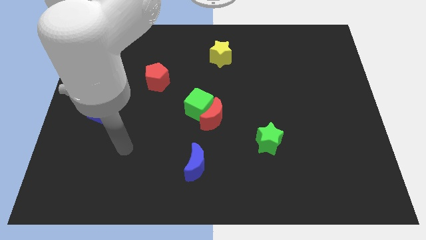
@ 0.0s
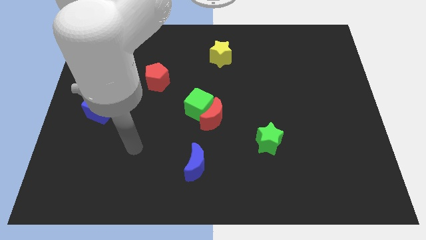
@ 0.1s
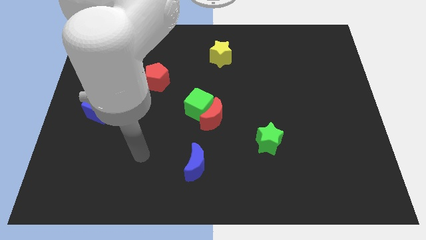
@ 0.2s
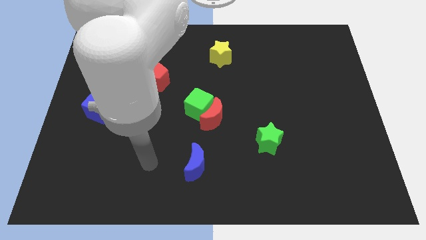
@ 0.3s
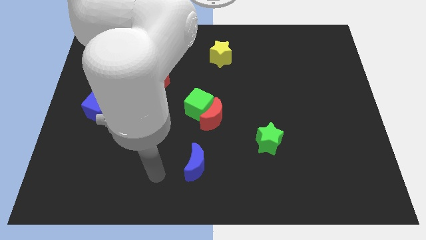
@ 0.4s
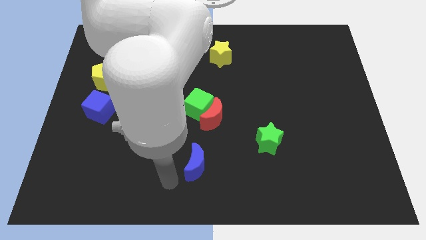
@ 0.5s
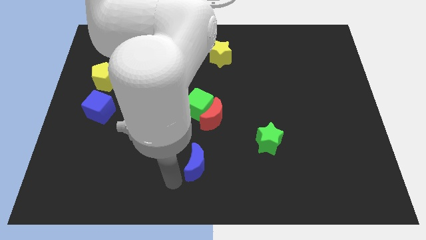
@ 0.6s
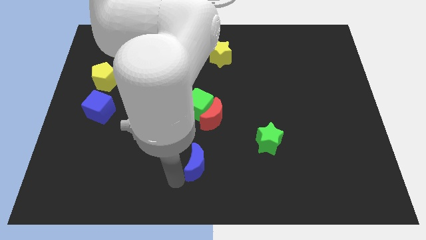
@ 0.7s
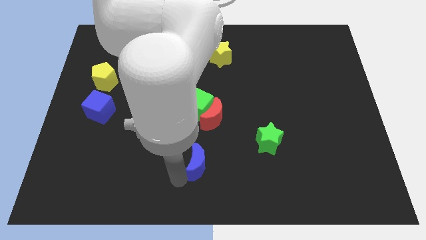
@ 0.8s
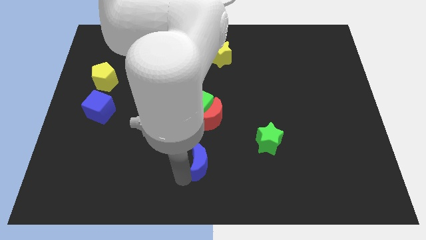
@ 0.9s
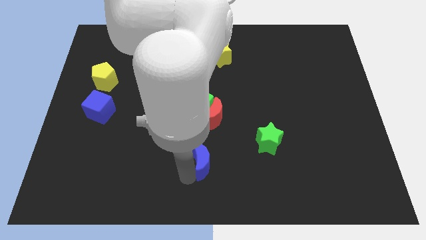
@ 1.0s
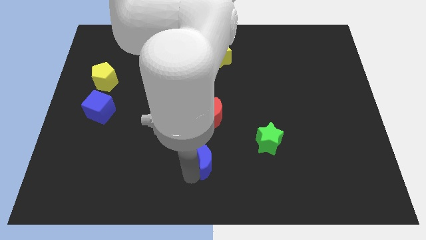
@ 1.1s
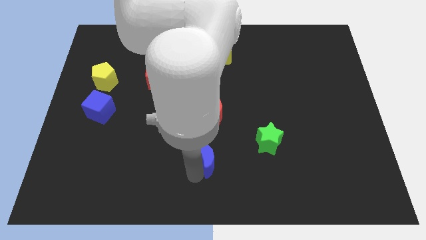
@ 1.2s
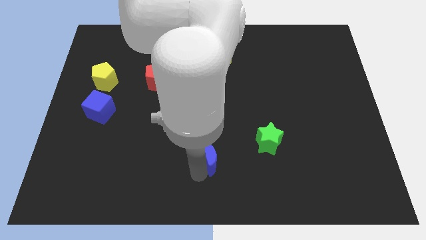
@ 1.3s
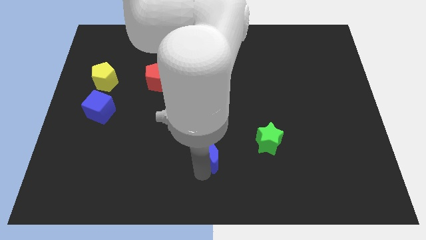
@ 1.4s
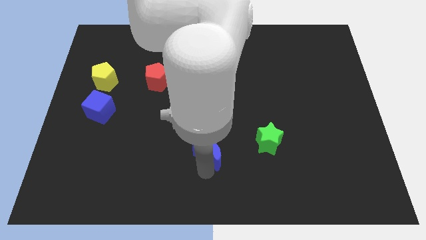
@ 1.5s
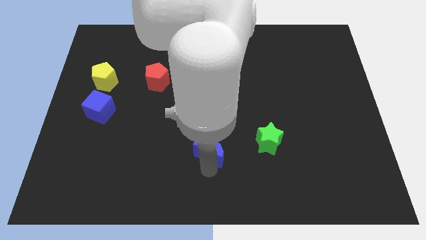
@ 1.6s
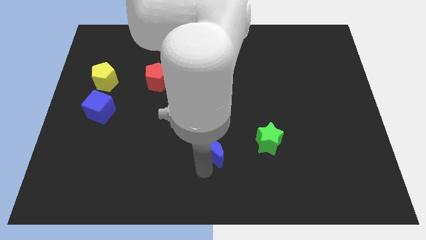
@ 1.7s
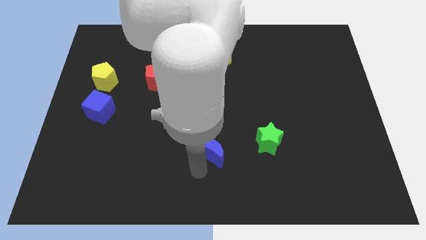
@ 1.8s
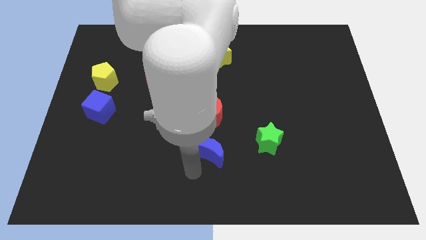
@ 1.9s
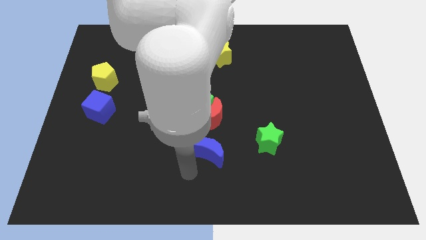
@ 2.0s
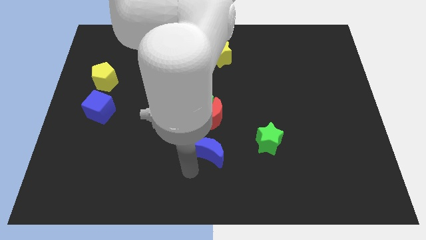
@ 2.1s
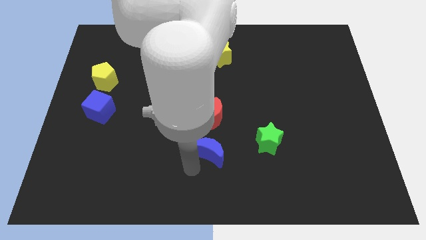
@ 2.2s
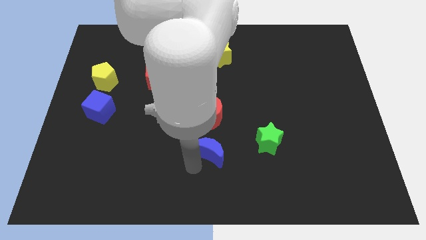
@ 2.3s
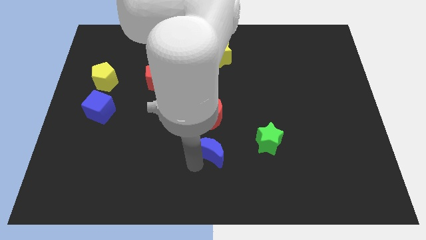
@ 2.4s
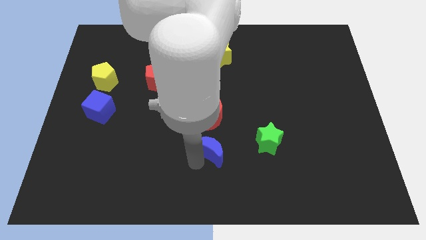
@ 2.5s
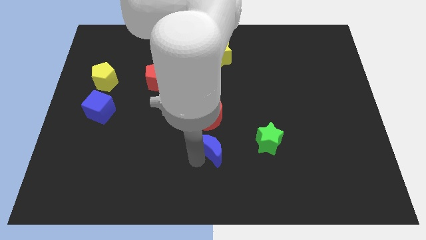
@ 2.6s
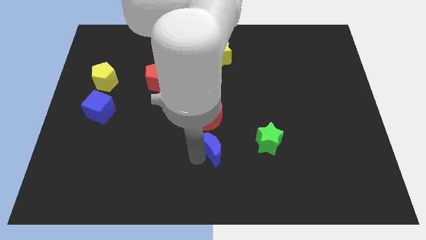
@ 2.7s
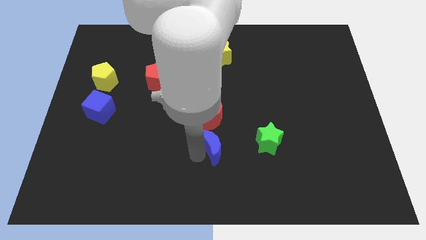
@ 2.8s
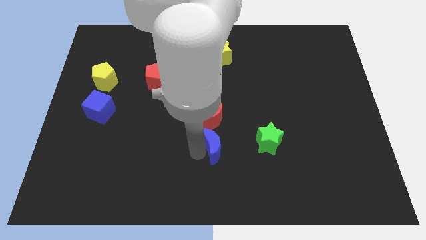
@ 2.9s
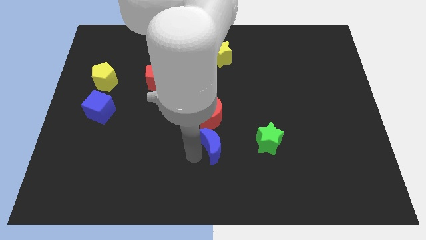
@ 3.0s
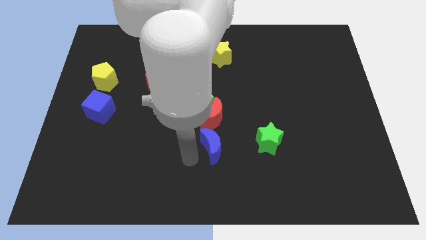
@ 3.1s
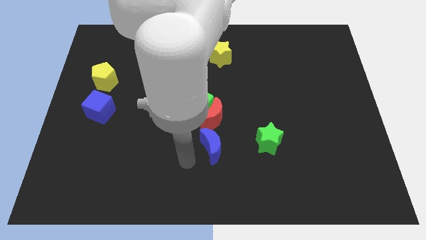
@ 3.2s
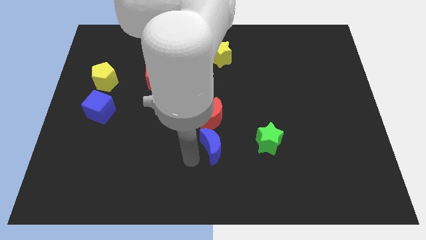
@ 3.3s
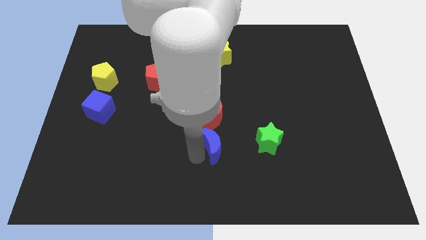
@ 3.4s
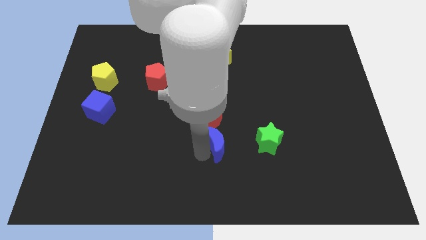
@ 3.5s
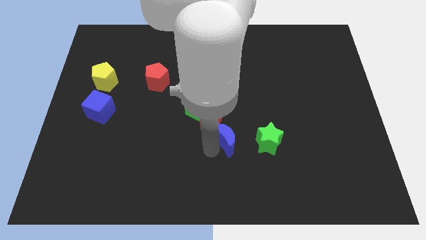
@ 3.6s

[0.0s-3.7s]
slightly push the blue moon diagonally upwards and to the right

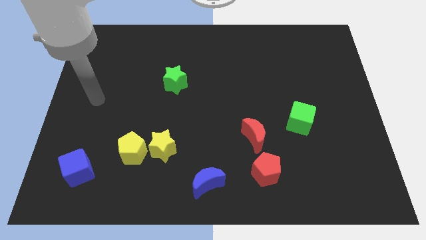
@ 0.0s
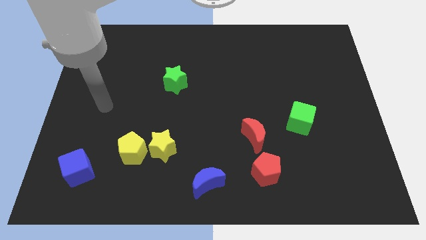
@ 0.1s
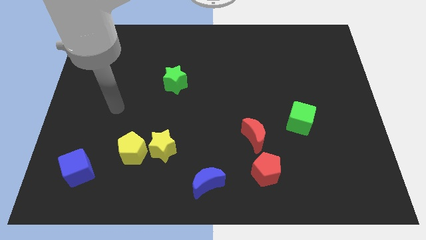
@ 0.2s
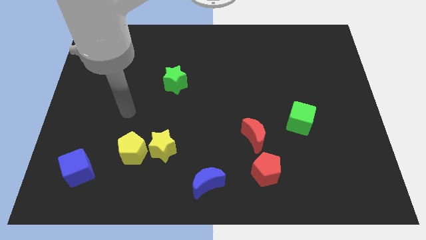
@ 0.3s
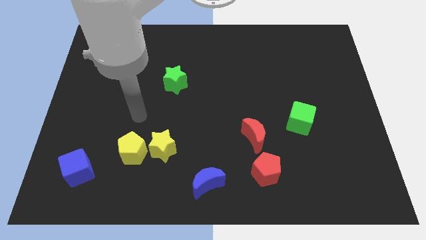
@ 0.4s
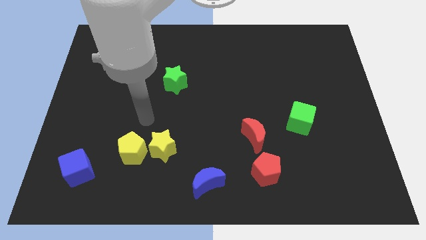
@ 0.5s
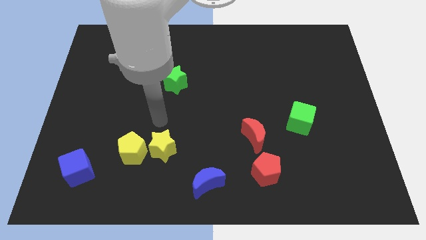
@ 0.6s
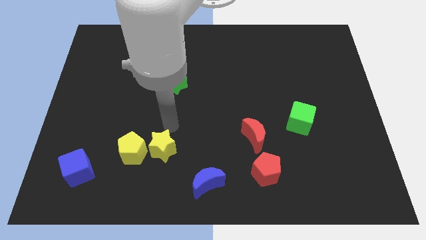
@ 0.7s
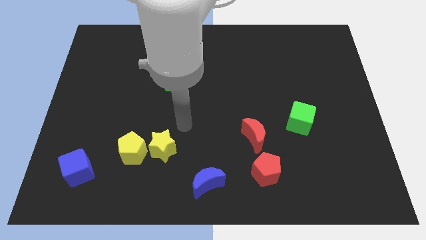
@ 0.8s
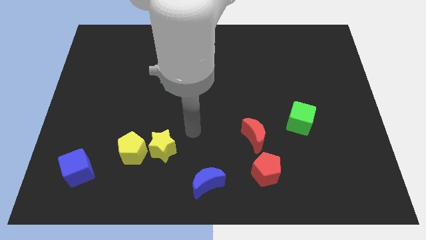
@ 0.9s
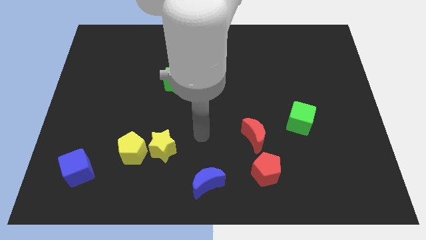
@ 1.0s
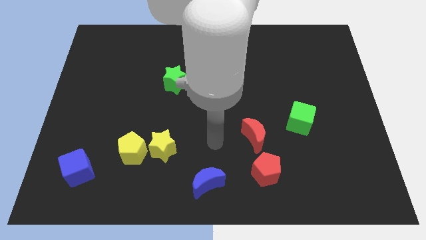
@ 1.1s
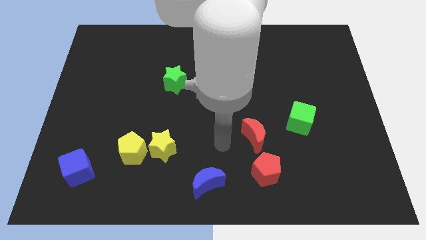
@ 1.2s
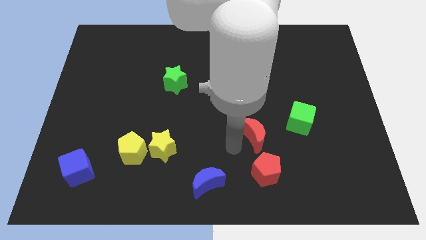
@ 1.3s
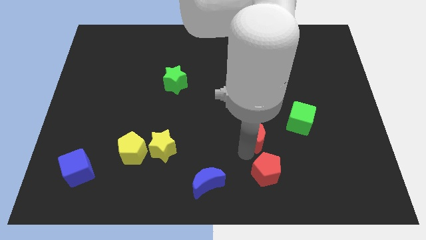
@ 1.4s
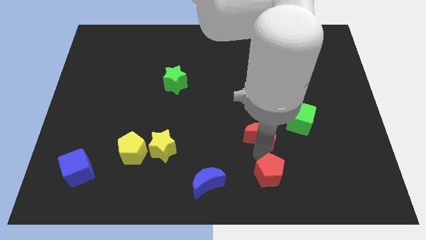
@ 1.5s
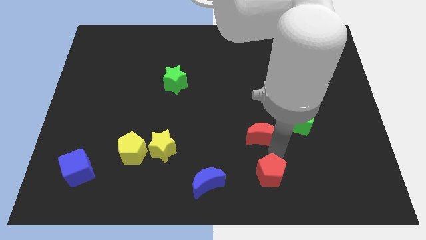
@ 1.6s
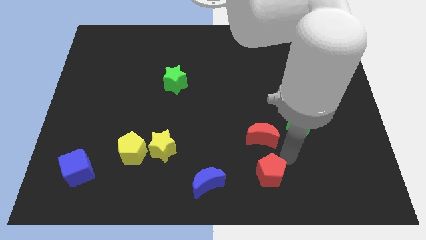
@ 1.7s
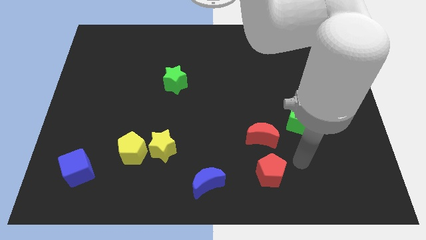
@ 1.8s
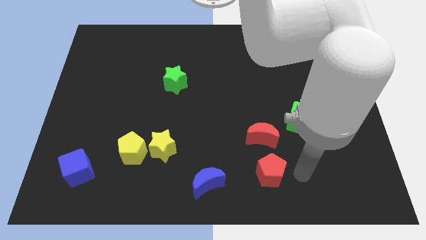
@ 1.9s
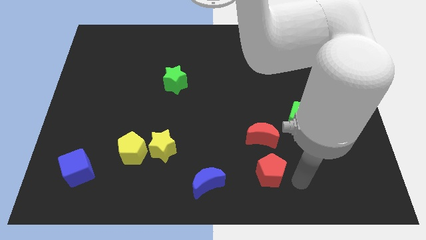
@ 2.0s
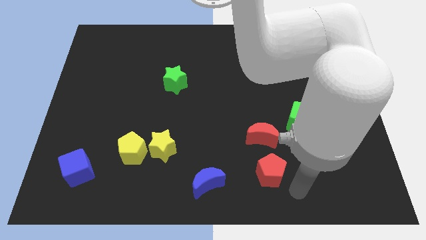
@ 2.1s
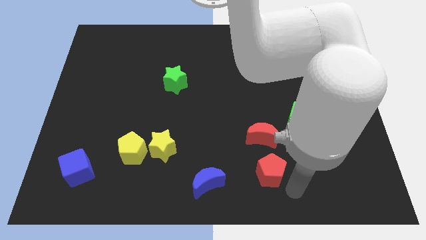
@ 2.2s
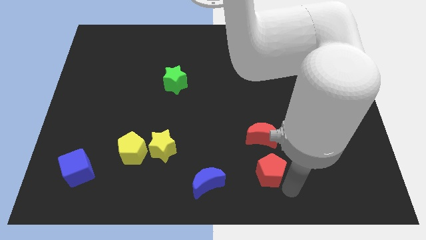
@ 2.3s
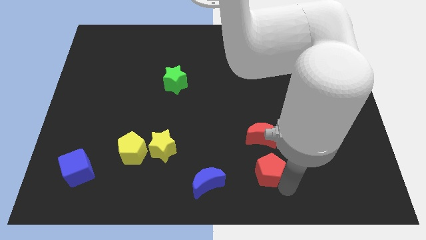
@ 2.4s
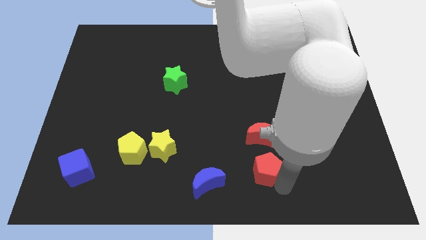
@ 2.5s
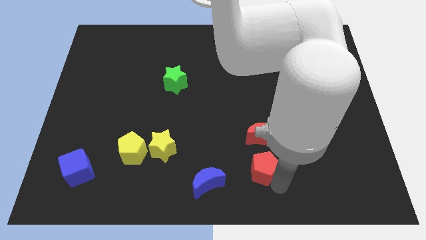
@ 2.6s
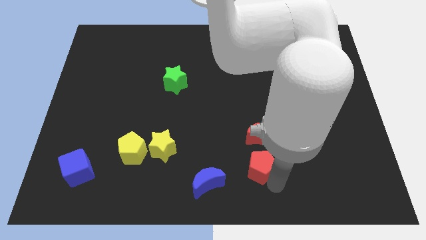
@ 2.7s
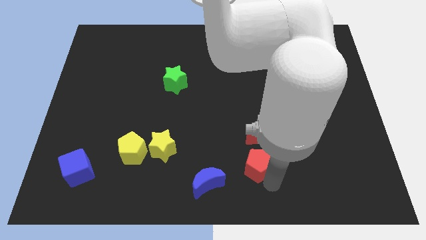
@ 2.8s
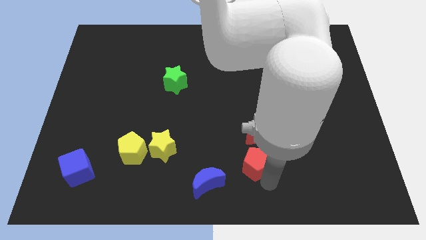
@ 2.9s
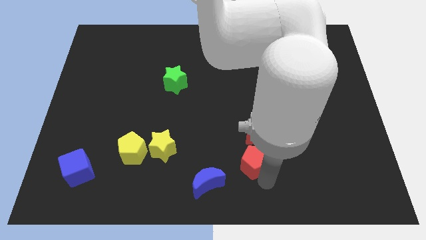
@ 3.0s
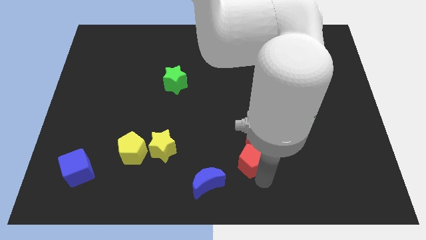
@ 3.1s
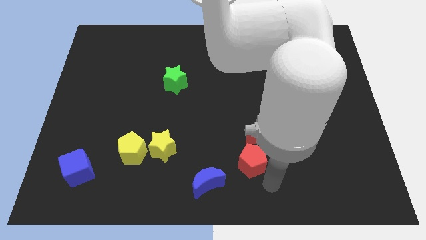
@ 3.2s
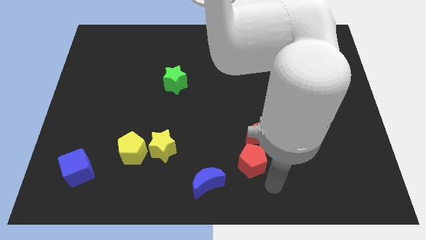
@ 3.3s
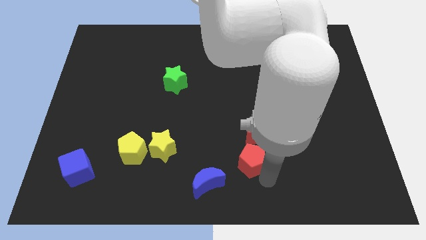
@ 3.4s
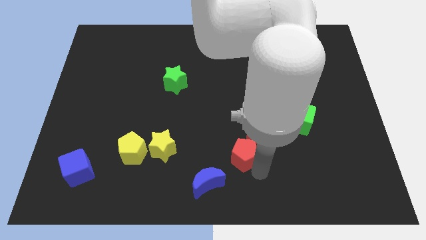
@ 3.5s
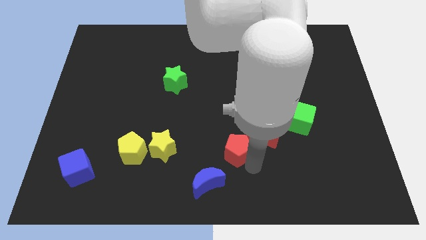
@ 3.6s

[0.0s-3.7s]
slide the red pentagon a bit up and left diagonally

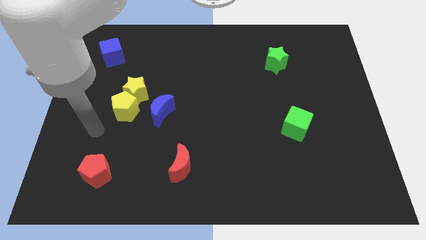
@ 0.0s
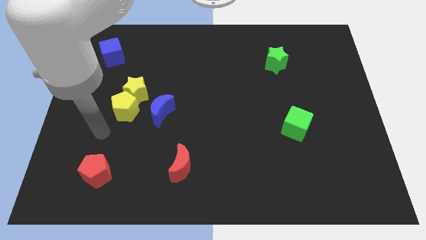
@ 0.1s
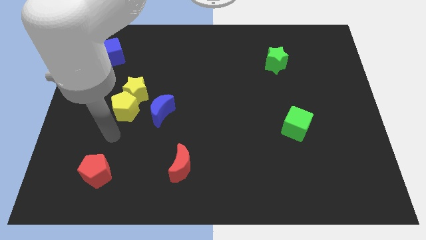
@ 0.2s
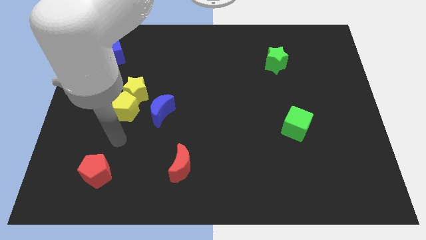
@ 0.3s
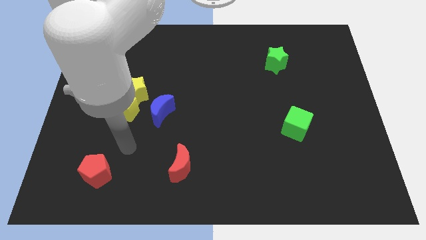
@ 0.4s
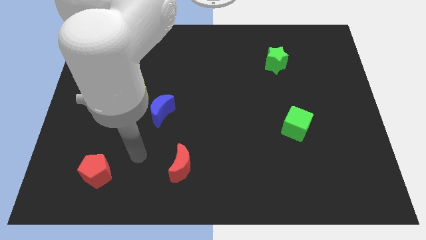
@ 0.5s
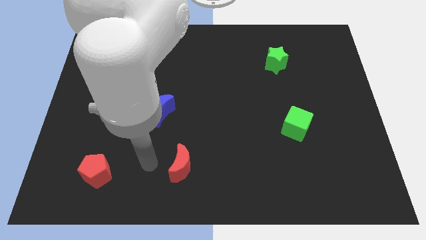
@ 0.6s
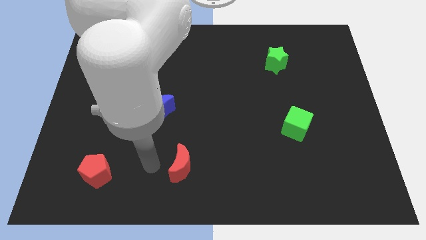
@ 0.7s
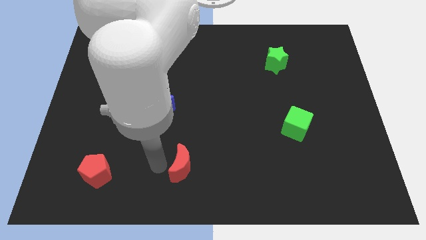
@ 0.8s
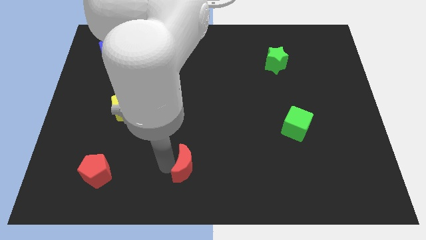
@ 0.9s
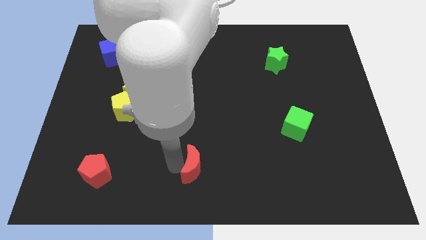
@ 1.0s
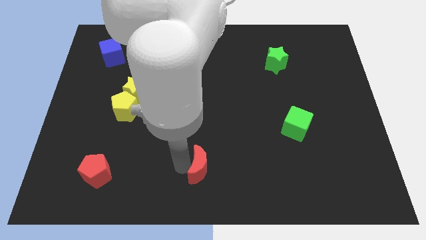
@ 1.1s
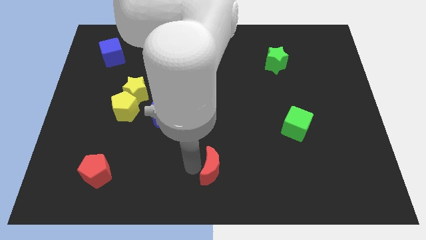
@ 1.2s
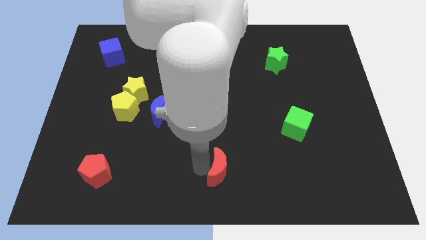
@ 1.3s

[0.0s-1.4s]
slightly move the red moon right
